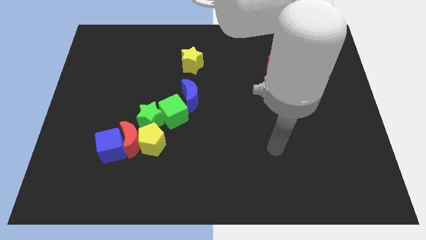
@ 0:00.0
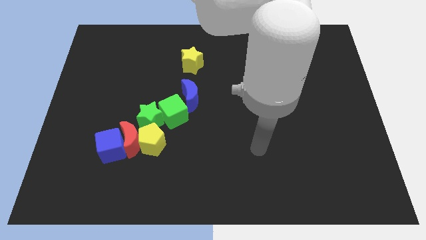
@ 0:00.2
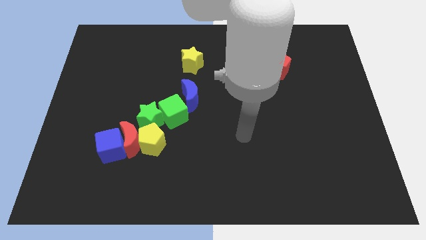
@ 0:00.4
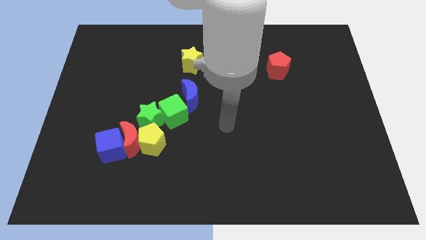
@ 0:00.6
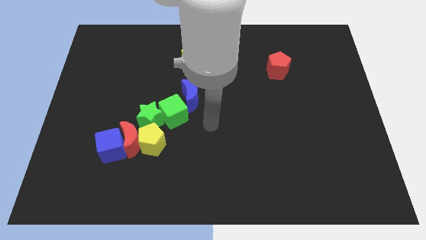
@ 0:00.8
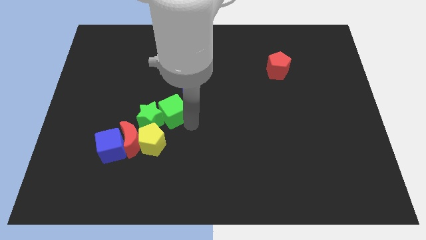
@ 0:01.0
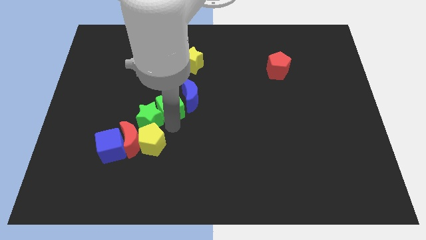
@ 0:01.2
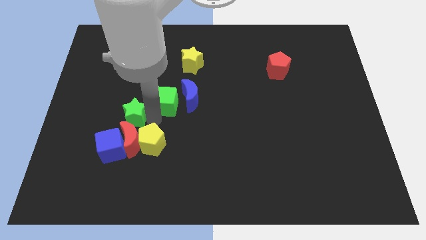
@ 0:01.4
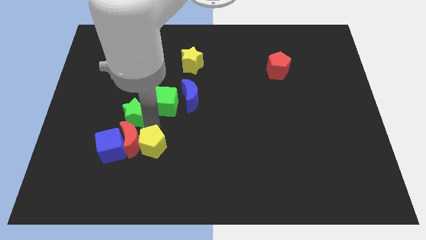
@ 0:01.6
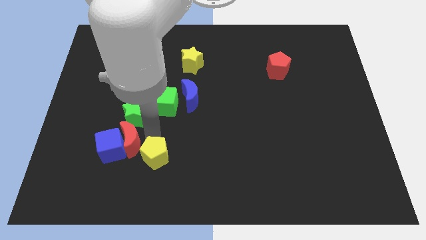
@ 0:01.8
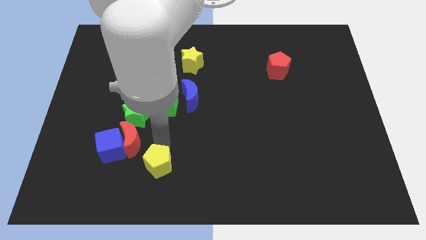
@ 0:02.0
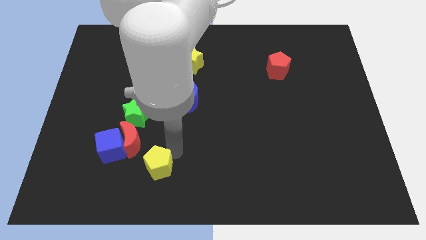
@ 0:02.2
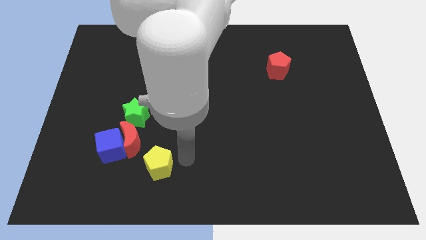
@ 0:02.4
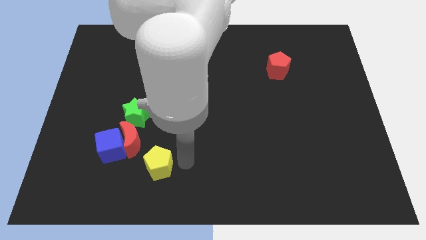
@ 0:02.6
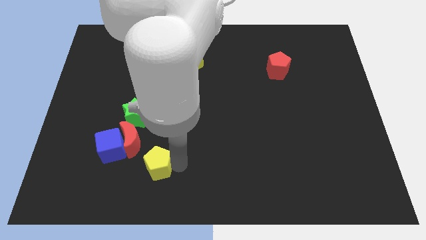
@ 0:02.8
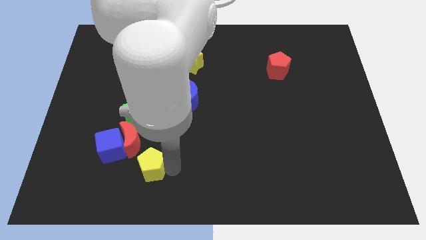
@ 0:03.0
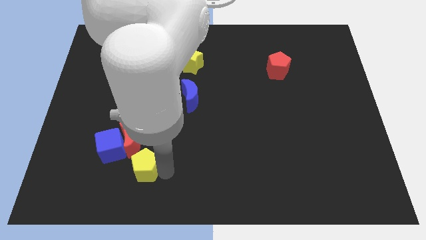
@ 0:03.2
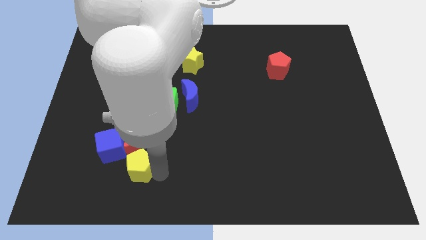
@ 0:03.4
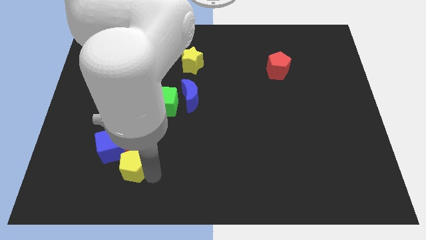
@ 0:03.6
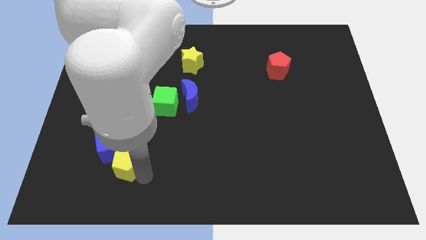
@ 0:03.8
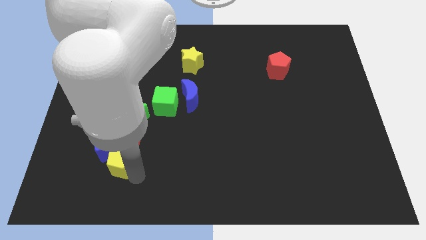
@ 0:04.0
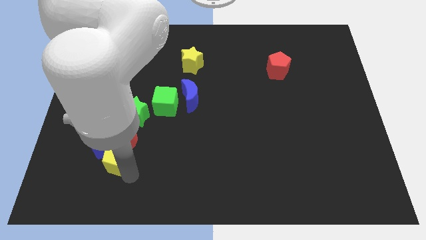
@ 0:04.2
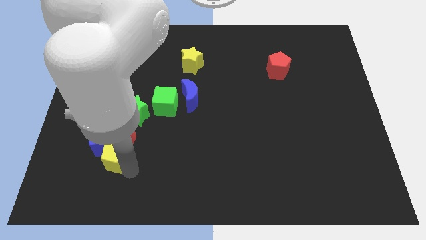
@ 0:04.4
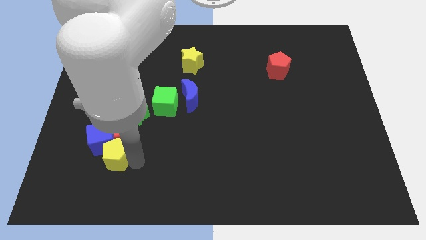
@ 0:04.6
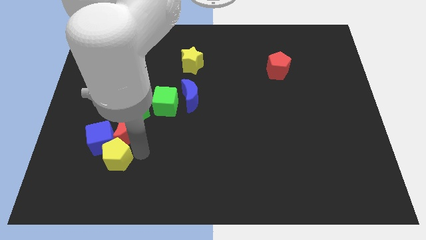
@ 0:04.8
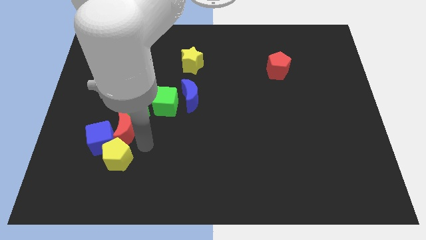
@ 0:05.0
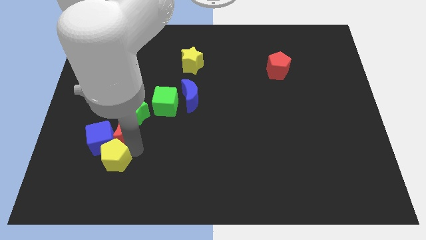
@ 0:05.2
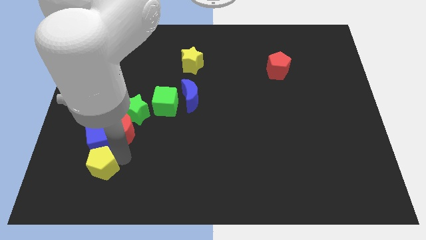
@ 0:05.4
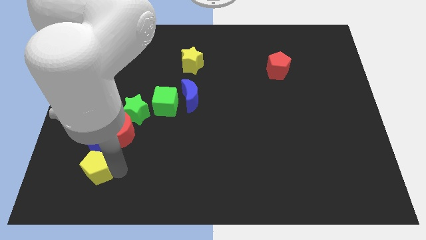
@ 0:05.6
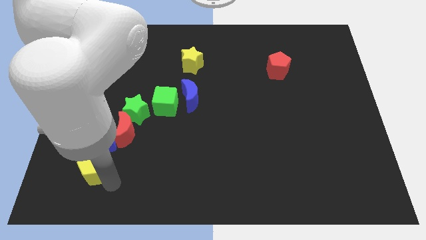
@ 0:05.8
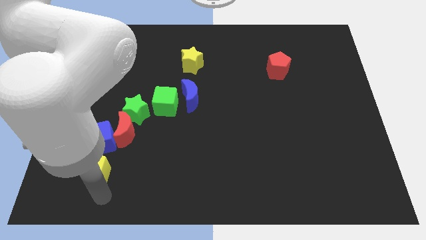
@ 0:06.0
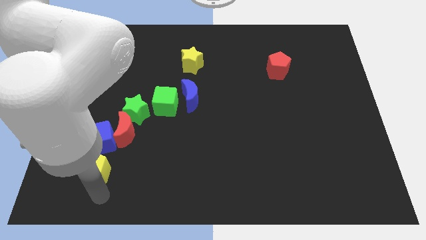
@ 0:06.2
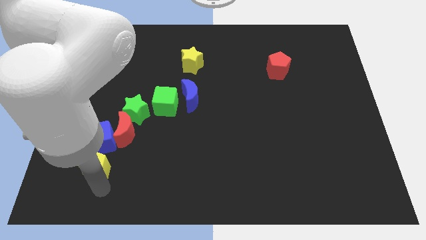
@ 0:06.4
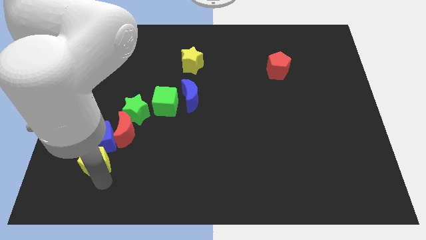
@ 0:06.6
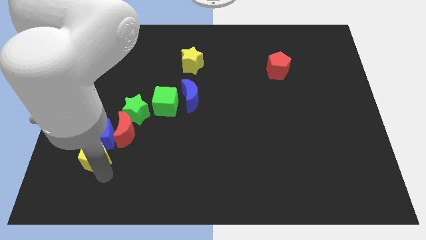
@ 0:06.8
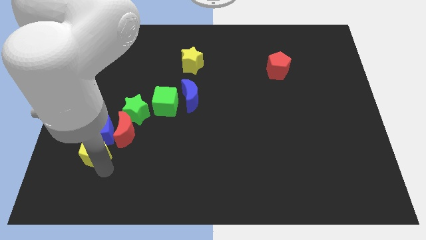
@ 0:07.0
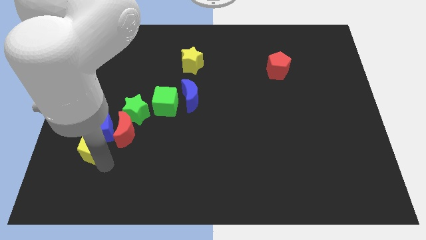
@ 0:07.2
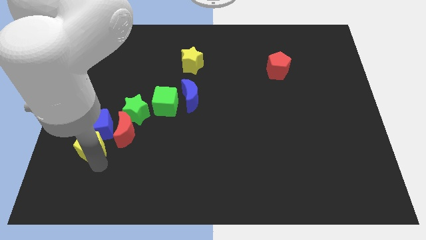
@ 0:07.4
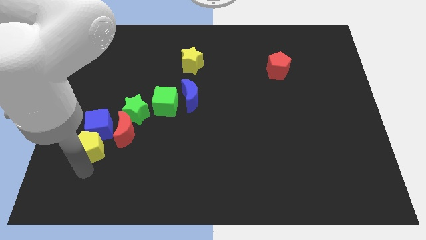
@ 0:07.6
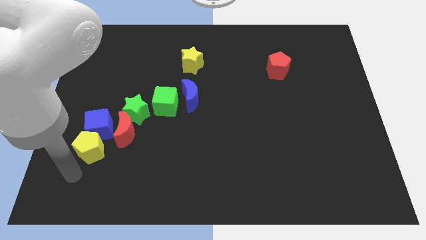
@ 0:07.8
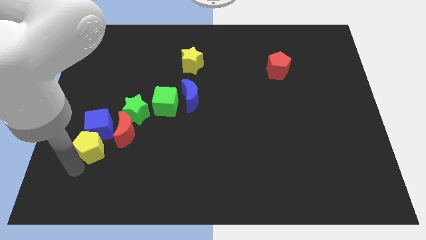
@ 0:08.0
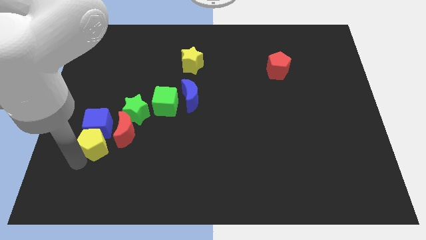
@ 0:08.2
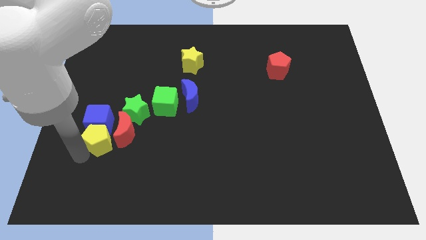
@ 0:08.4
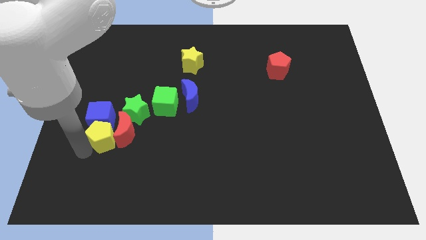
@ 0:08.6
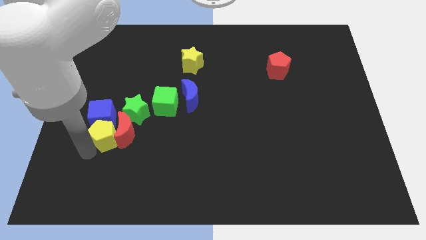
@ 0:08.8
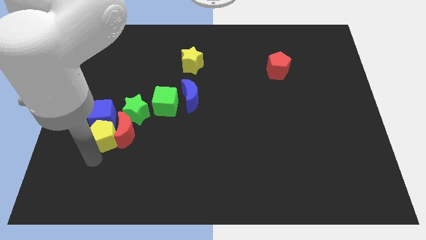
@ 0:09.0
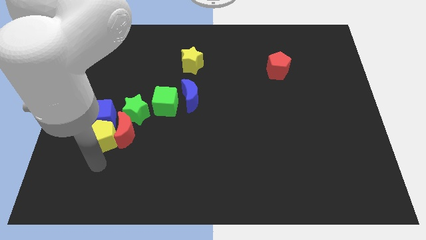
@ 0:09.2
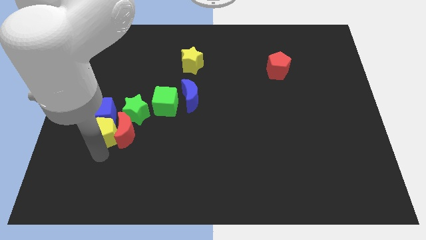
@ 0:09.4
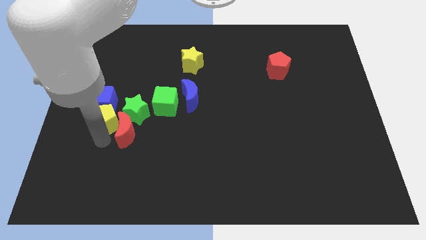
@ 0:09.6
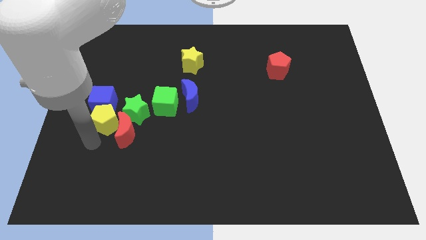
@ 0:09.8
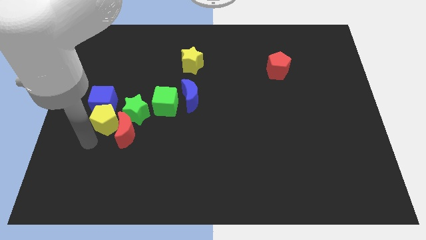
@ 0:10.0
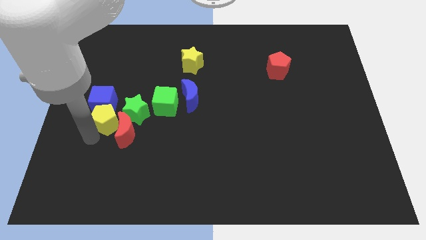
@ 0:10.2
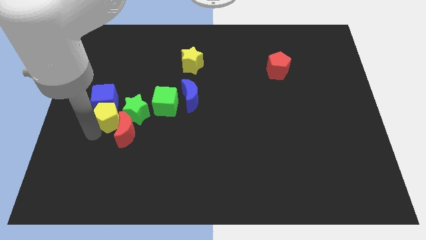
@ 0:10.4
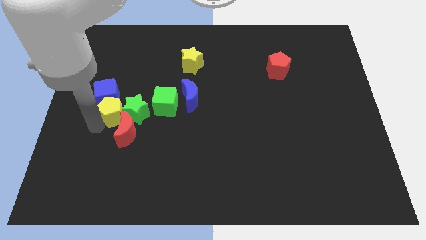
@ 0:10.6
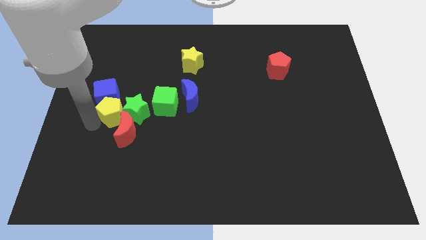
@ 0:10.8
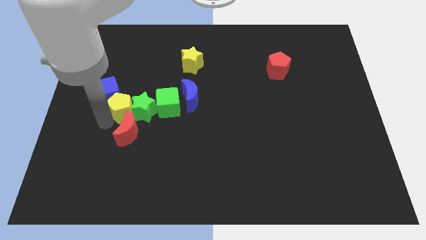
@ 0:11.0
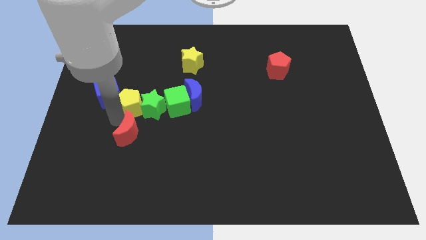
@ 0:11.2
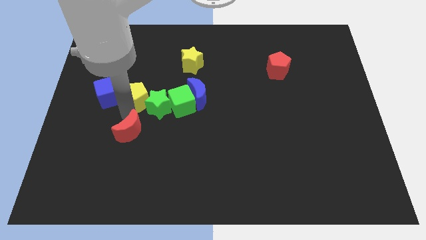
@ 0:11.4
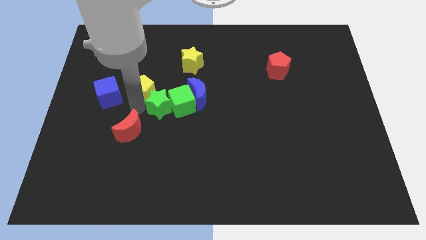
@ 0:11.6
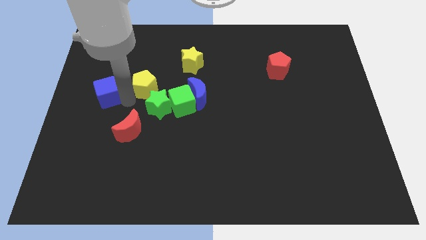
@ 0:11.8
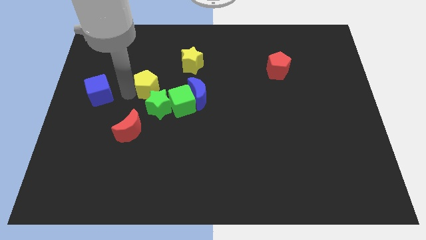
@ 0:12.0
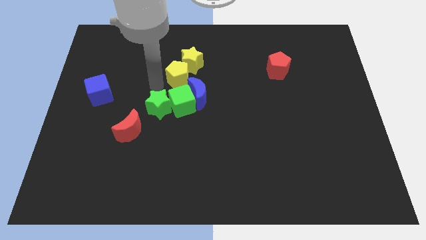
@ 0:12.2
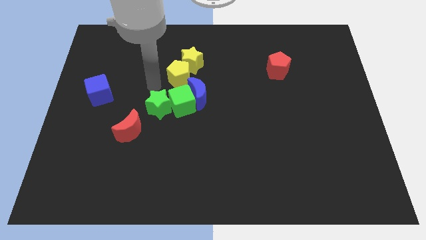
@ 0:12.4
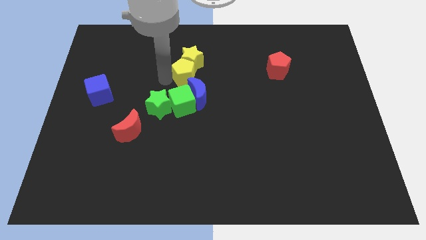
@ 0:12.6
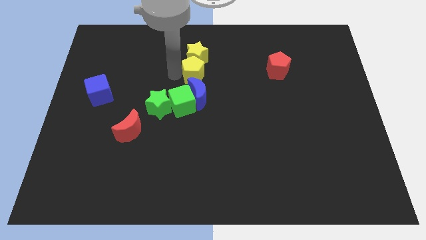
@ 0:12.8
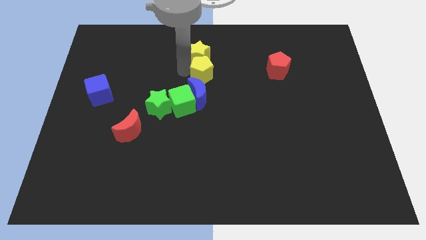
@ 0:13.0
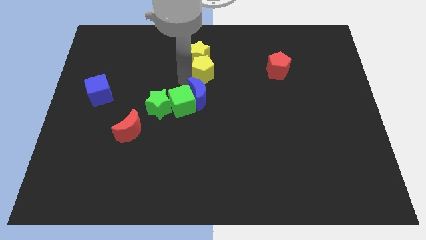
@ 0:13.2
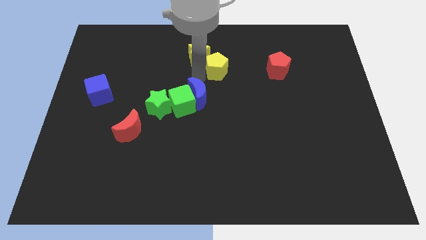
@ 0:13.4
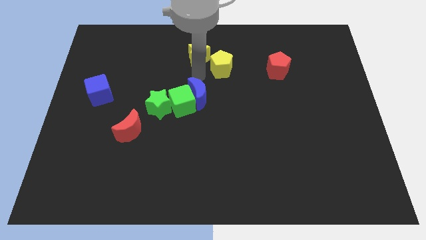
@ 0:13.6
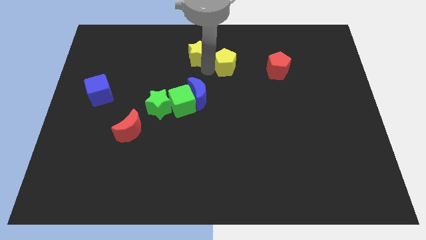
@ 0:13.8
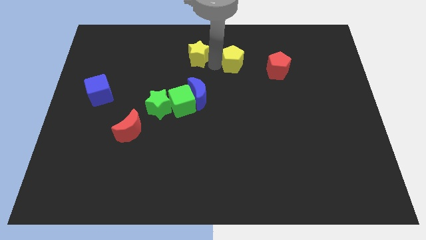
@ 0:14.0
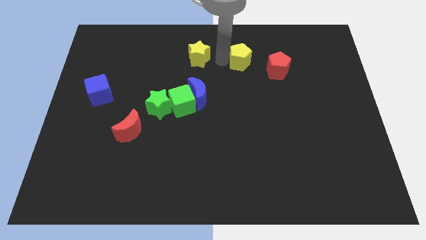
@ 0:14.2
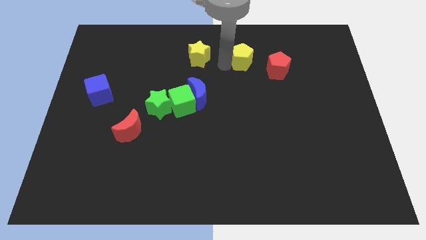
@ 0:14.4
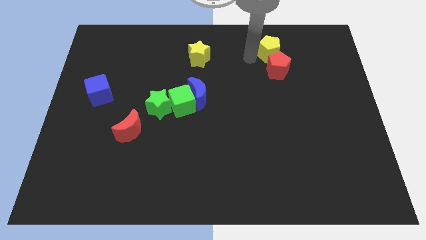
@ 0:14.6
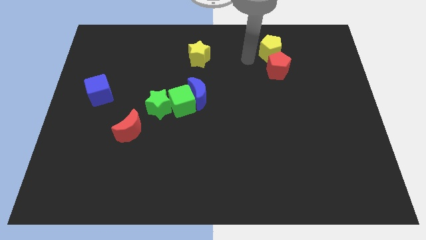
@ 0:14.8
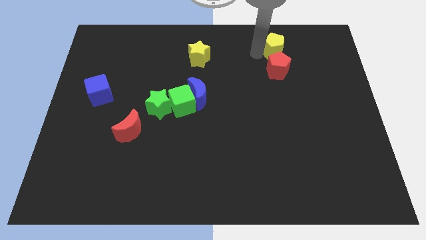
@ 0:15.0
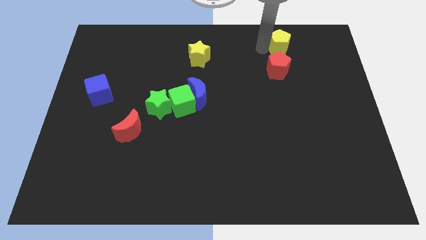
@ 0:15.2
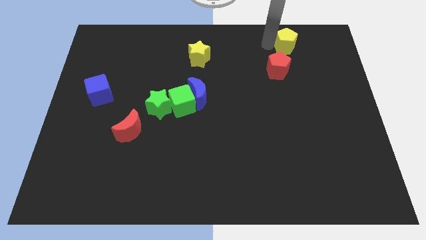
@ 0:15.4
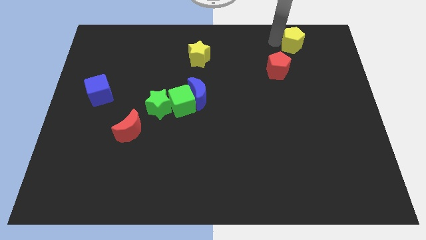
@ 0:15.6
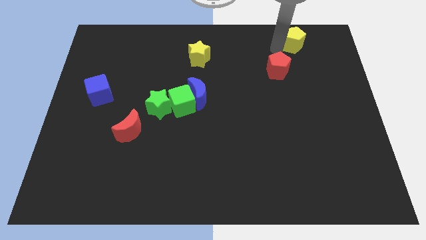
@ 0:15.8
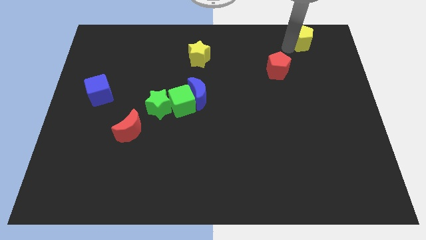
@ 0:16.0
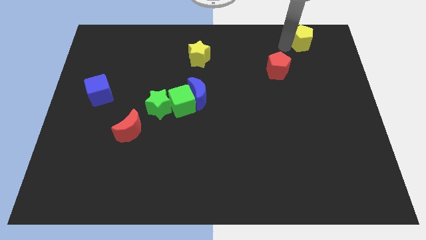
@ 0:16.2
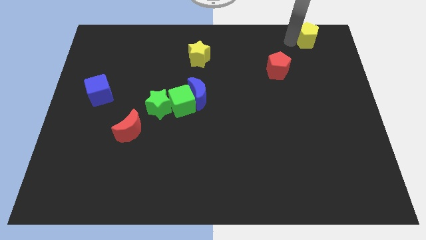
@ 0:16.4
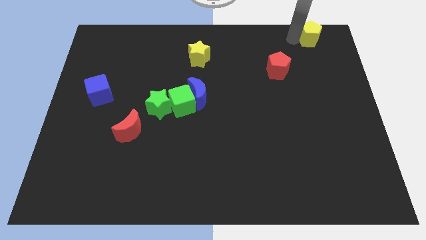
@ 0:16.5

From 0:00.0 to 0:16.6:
move the yellow pentagon to the top right corner
